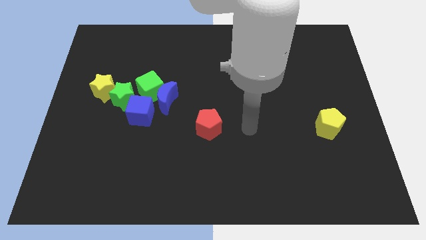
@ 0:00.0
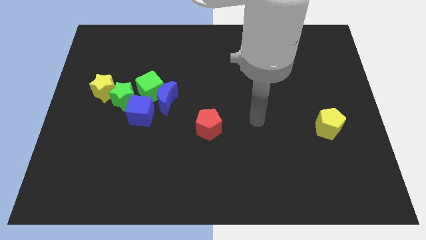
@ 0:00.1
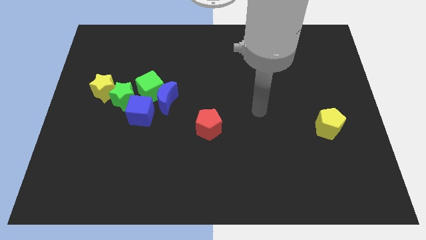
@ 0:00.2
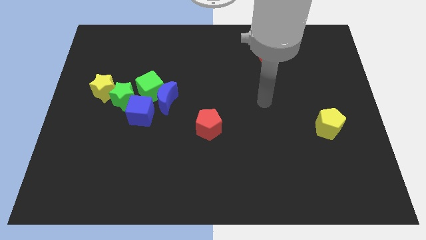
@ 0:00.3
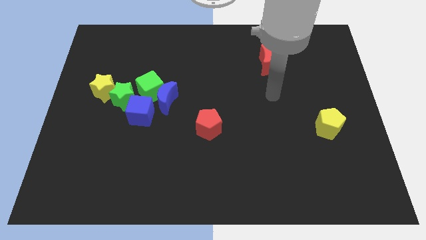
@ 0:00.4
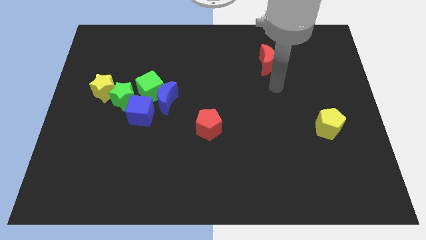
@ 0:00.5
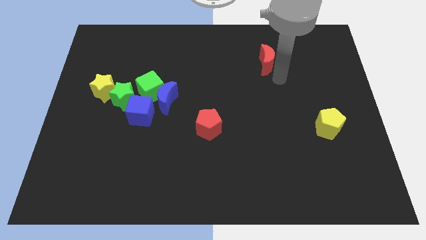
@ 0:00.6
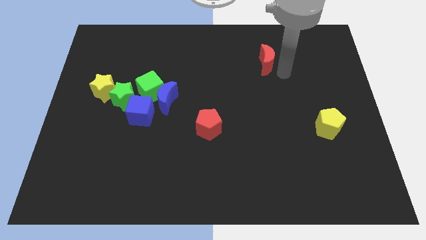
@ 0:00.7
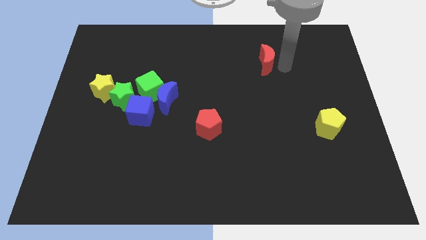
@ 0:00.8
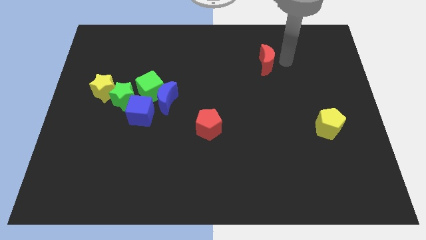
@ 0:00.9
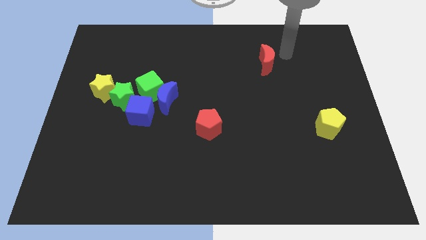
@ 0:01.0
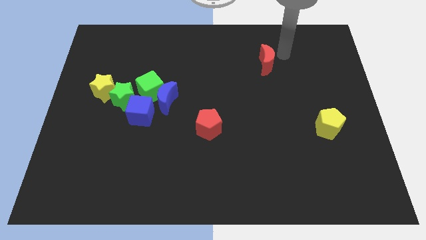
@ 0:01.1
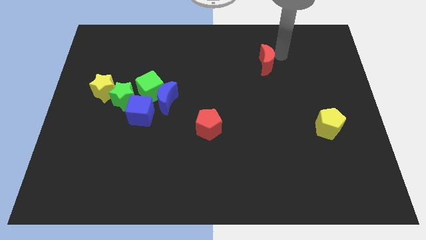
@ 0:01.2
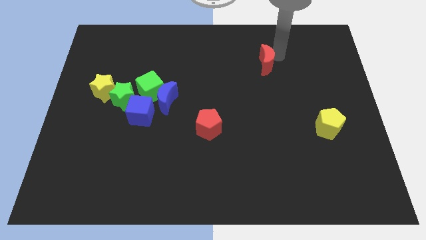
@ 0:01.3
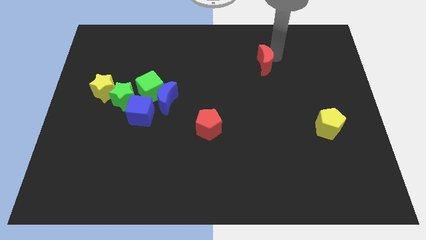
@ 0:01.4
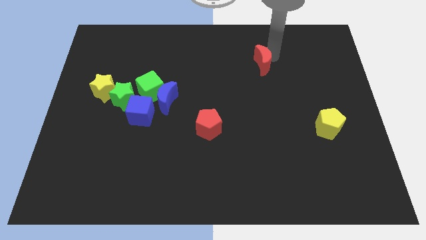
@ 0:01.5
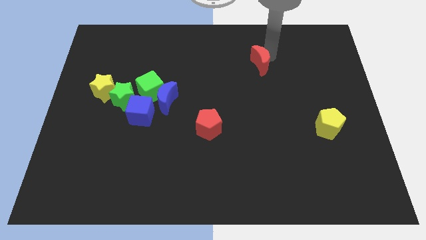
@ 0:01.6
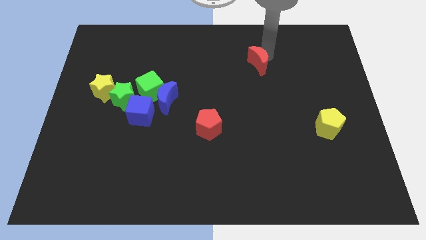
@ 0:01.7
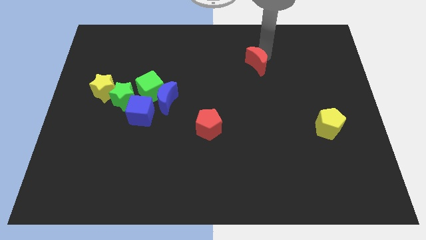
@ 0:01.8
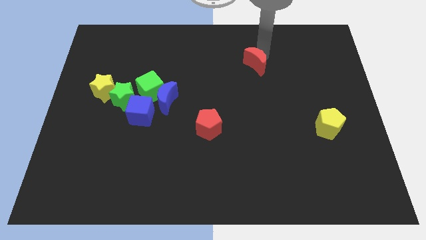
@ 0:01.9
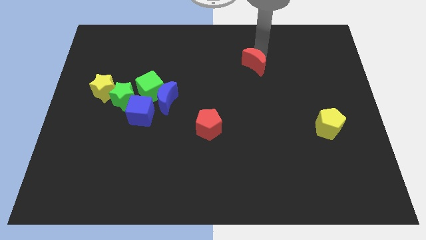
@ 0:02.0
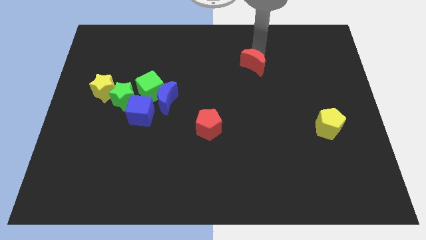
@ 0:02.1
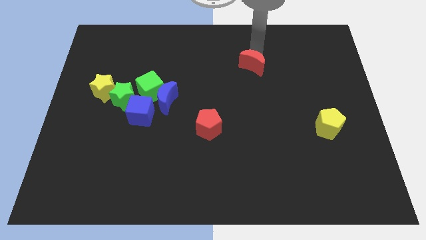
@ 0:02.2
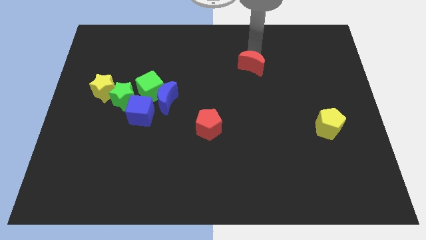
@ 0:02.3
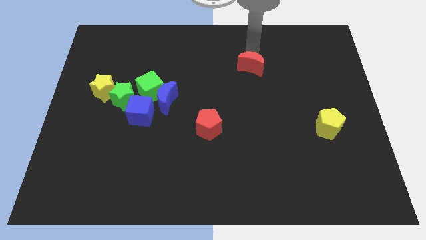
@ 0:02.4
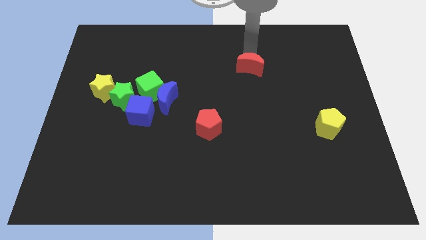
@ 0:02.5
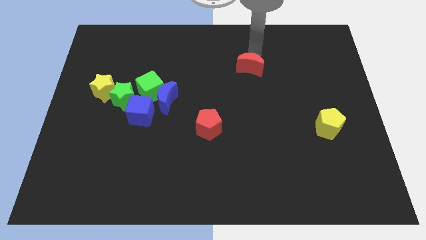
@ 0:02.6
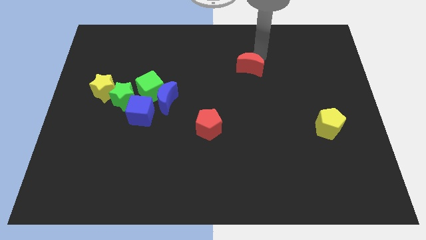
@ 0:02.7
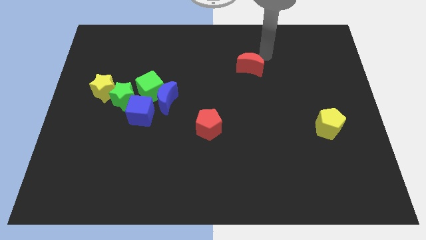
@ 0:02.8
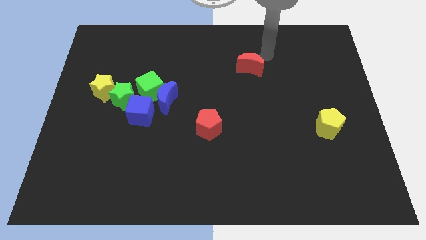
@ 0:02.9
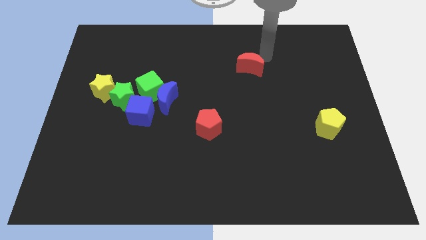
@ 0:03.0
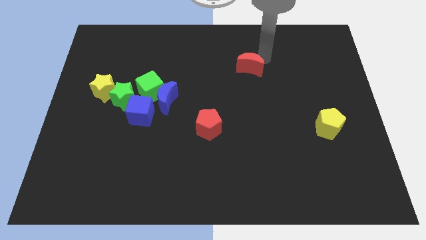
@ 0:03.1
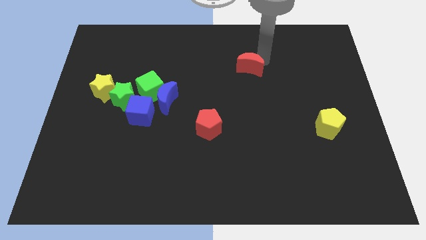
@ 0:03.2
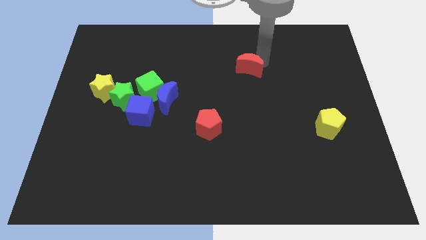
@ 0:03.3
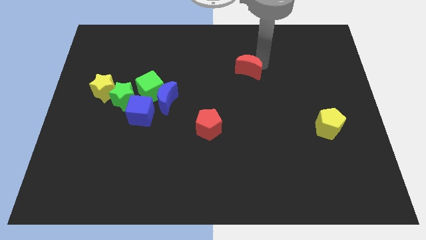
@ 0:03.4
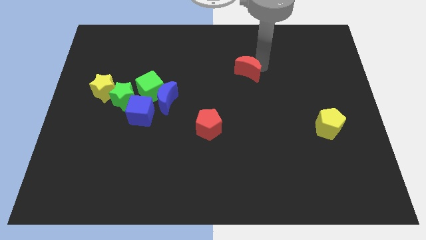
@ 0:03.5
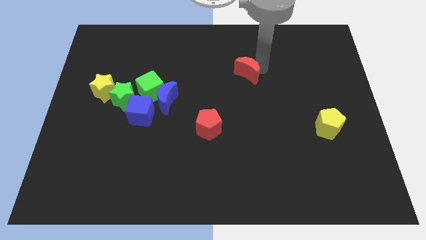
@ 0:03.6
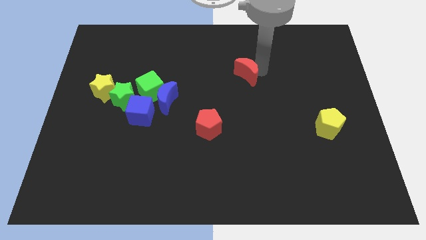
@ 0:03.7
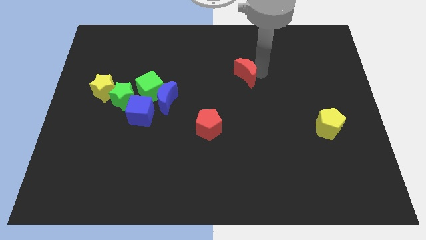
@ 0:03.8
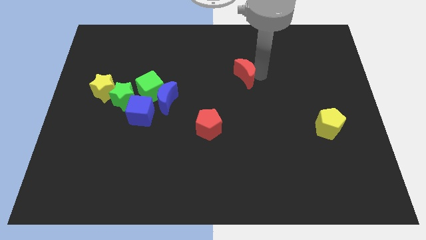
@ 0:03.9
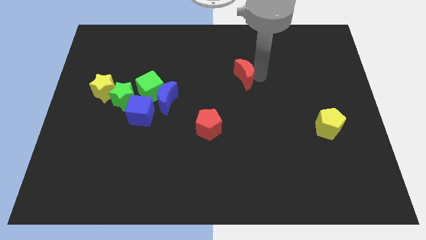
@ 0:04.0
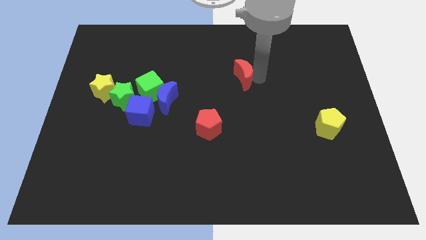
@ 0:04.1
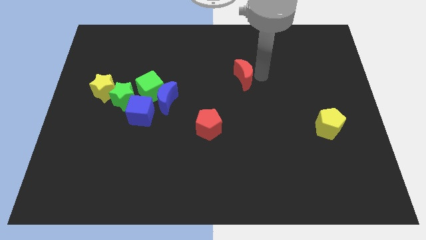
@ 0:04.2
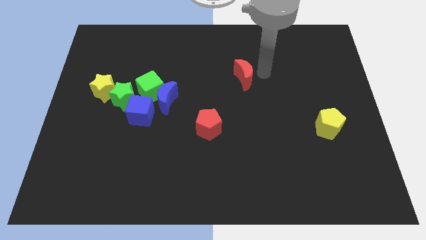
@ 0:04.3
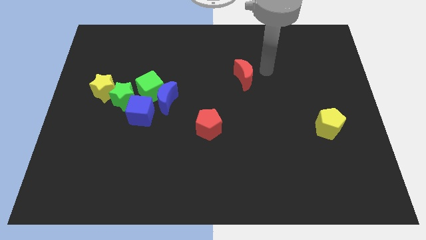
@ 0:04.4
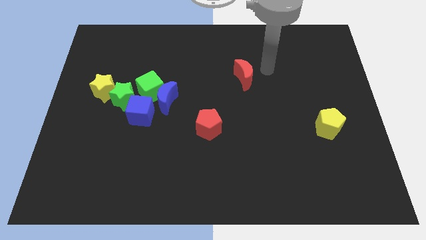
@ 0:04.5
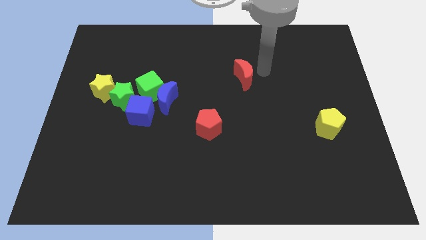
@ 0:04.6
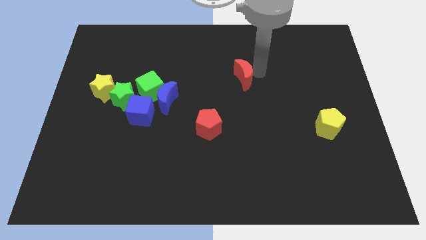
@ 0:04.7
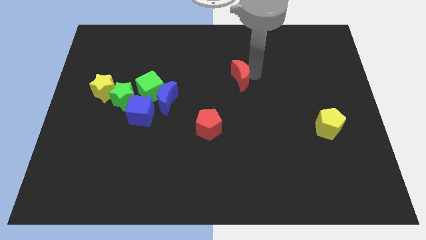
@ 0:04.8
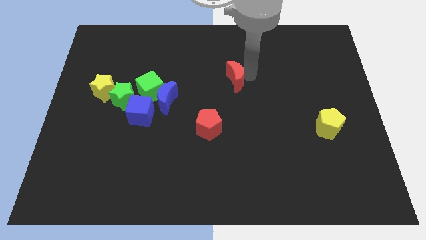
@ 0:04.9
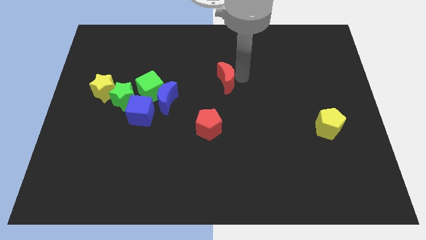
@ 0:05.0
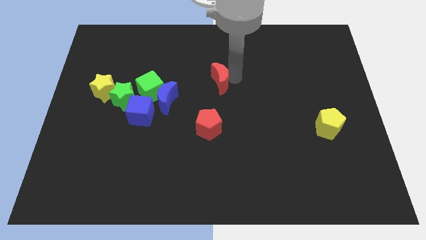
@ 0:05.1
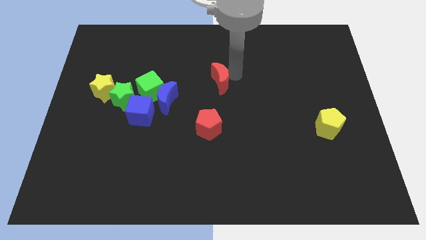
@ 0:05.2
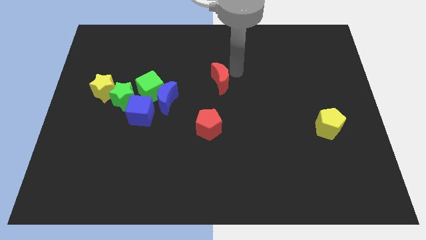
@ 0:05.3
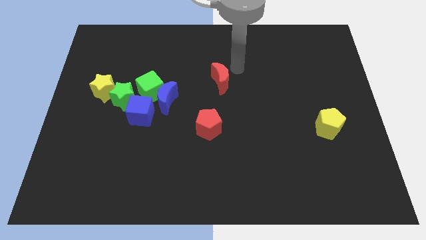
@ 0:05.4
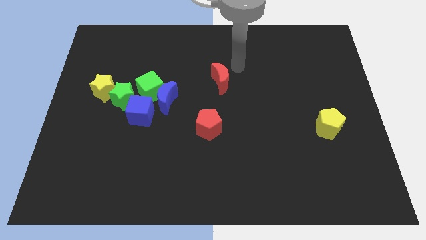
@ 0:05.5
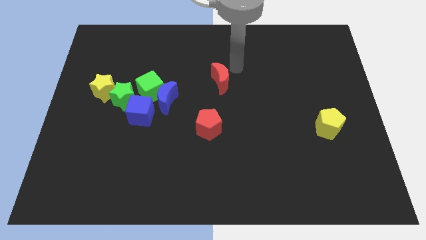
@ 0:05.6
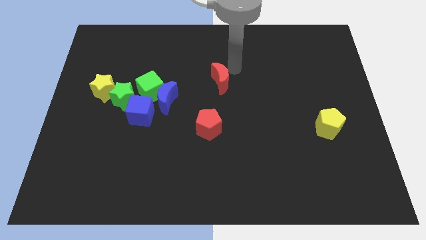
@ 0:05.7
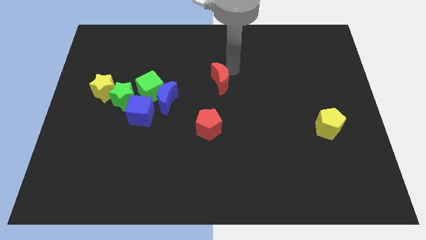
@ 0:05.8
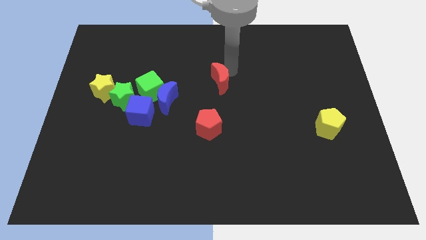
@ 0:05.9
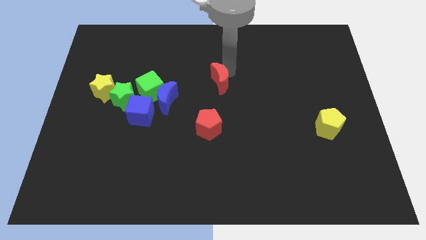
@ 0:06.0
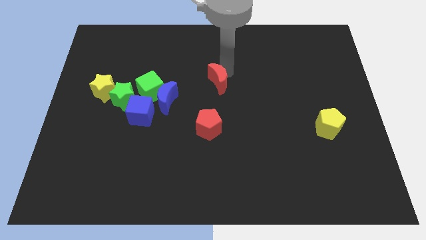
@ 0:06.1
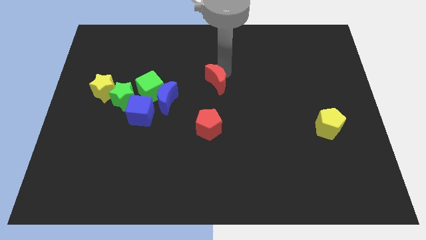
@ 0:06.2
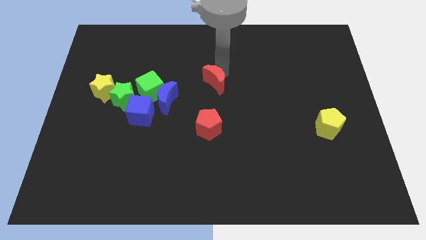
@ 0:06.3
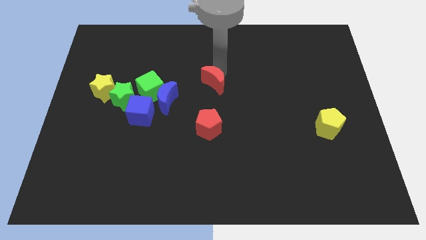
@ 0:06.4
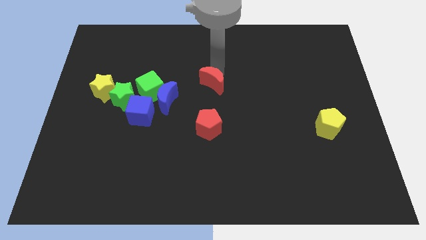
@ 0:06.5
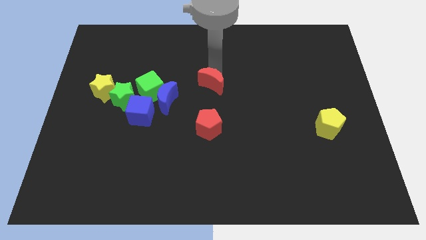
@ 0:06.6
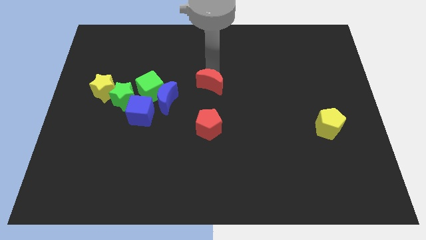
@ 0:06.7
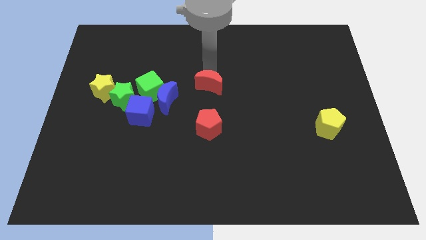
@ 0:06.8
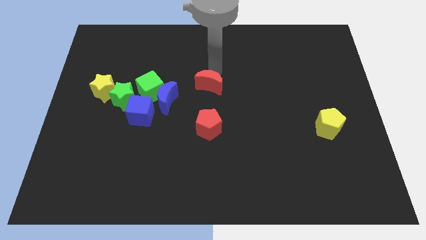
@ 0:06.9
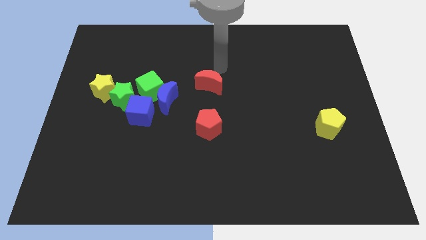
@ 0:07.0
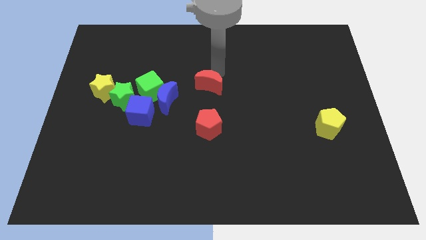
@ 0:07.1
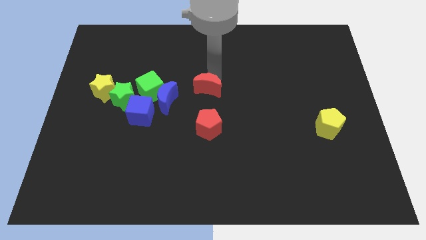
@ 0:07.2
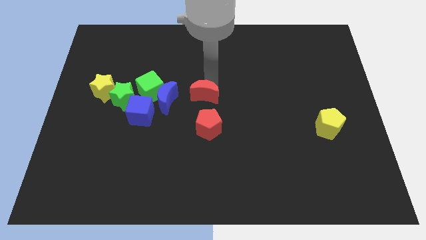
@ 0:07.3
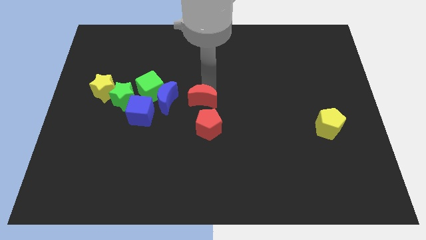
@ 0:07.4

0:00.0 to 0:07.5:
push the red moon down and left diagonally

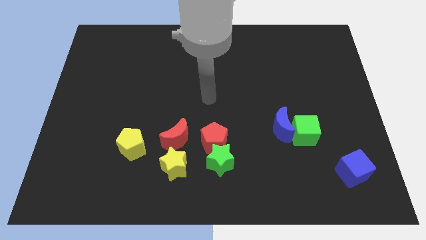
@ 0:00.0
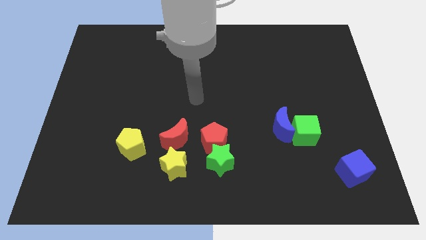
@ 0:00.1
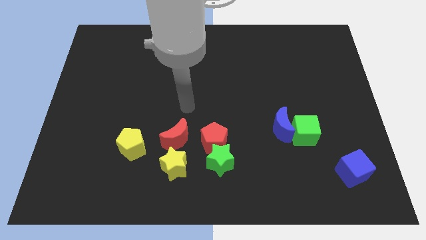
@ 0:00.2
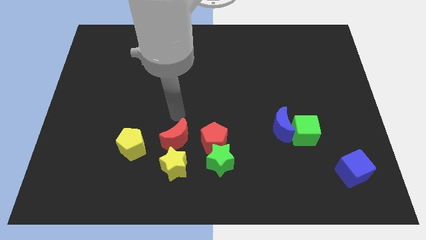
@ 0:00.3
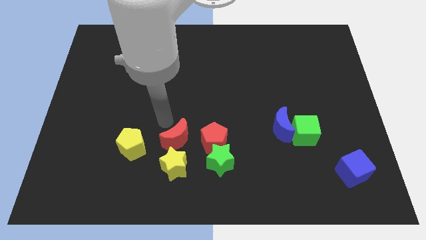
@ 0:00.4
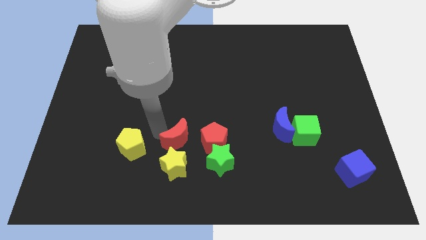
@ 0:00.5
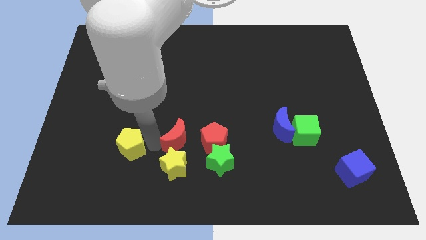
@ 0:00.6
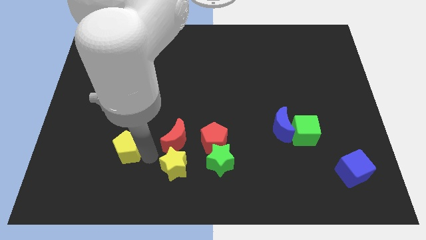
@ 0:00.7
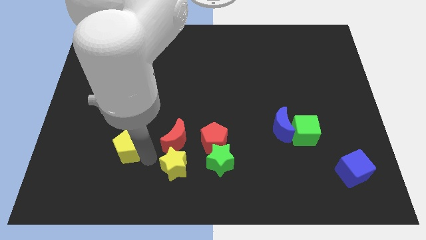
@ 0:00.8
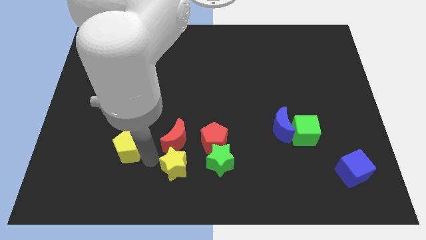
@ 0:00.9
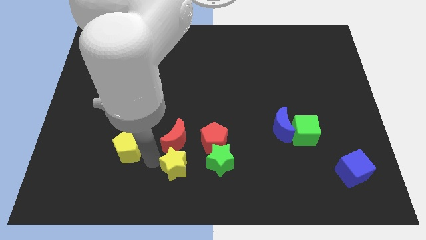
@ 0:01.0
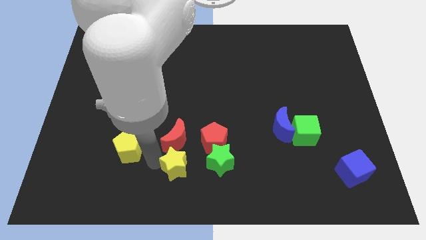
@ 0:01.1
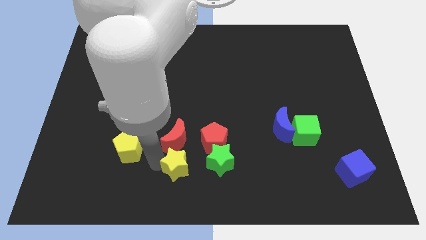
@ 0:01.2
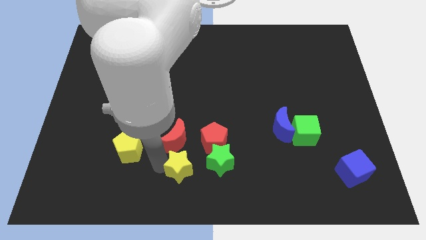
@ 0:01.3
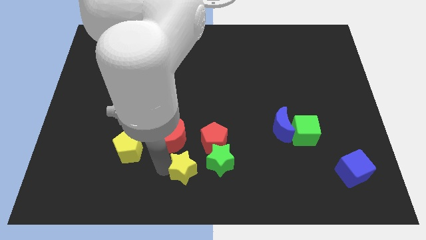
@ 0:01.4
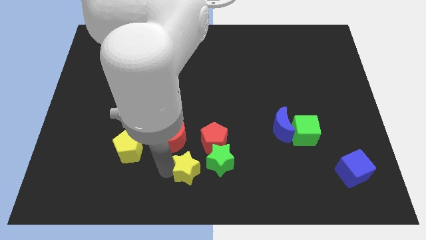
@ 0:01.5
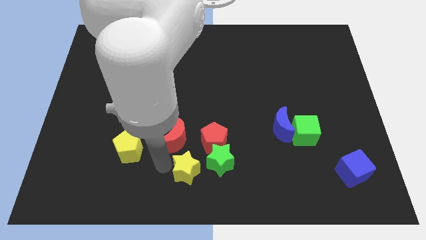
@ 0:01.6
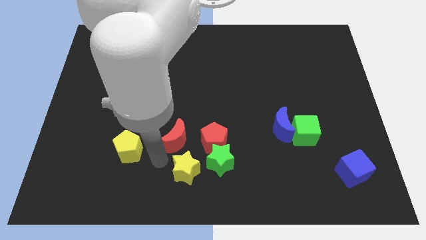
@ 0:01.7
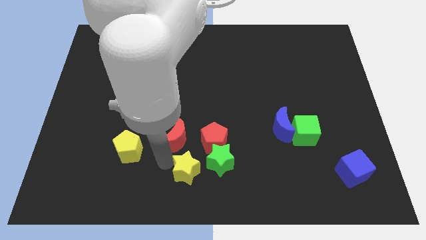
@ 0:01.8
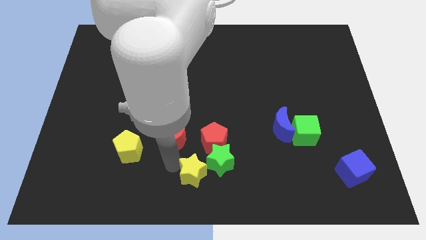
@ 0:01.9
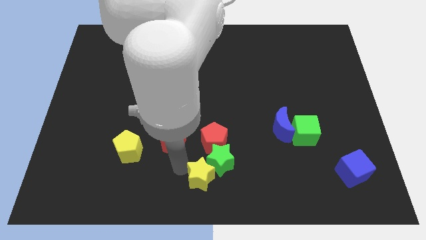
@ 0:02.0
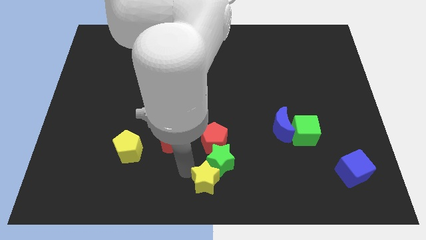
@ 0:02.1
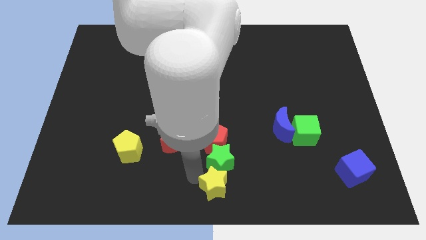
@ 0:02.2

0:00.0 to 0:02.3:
slightly move the yellow star to the right
